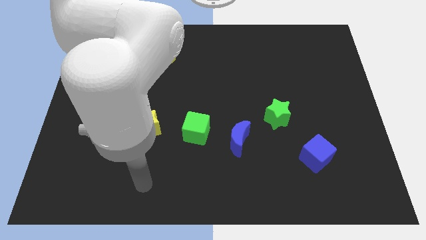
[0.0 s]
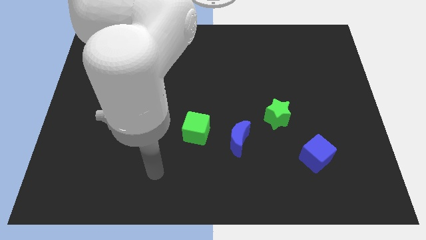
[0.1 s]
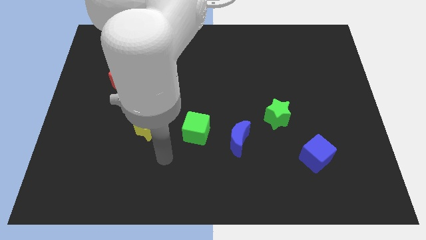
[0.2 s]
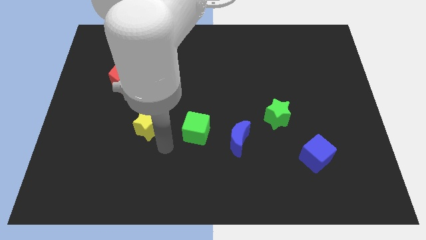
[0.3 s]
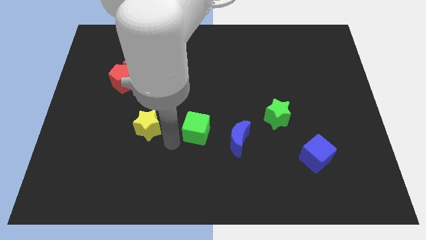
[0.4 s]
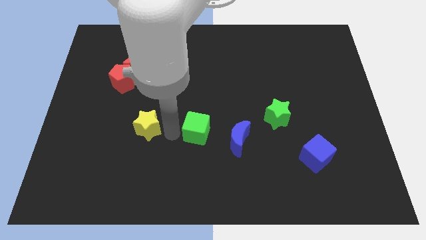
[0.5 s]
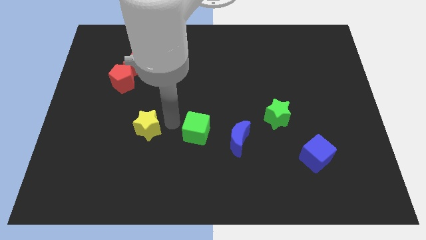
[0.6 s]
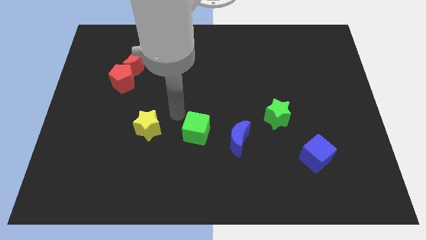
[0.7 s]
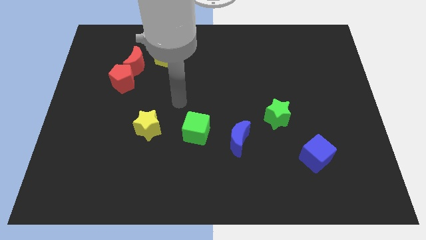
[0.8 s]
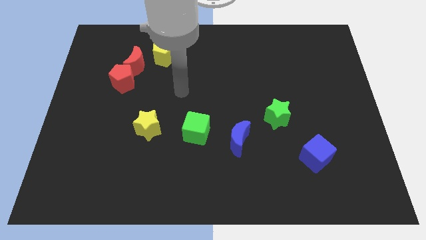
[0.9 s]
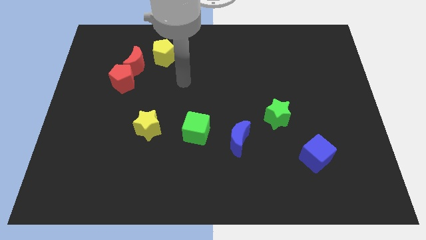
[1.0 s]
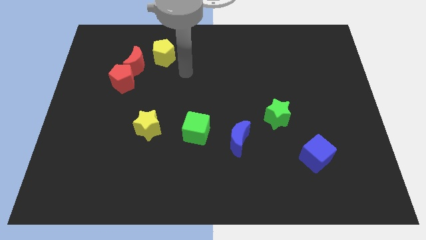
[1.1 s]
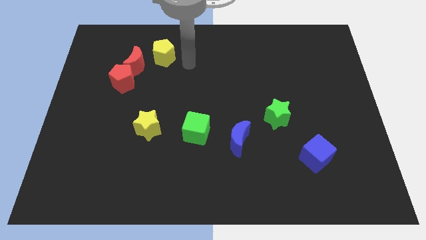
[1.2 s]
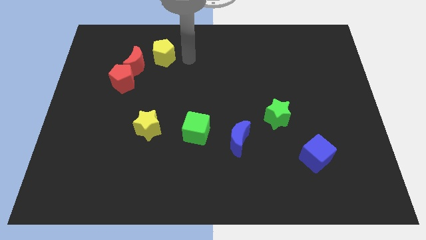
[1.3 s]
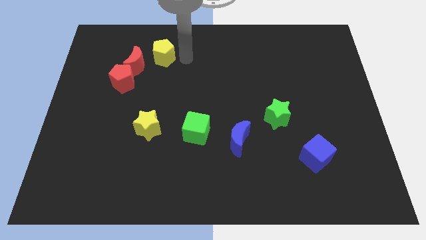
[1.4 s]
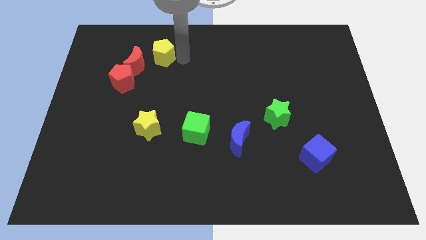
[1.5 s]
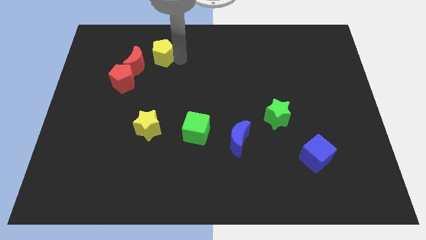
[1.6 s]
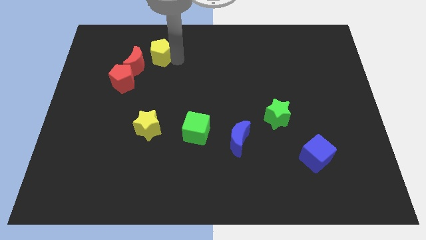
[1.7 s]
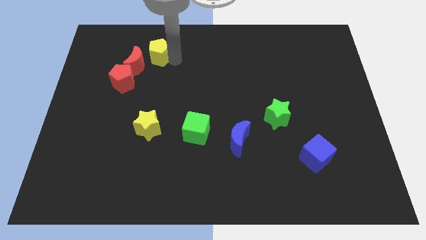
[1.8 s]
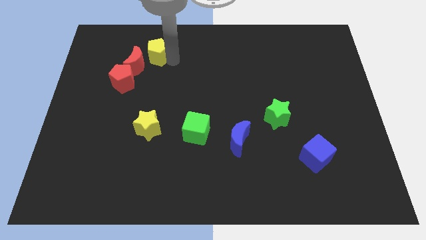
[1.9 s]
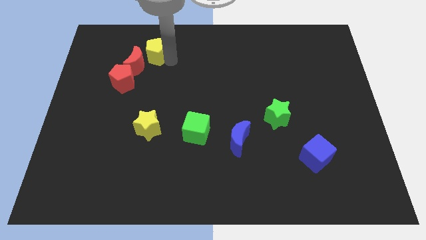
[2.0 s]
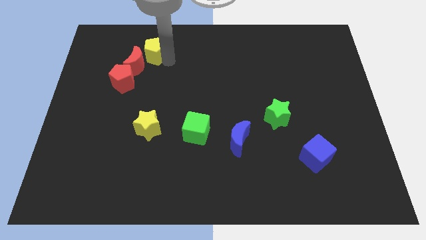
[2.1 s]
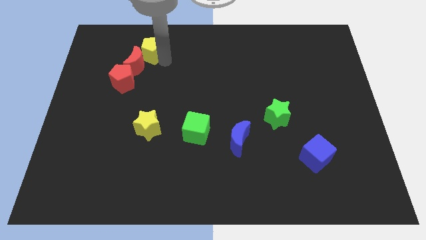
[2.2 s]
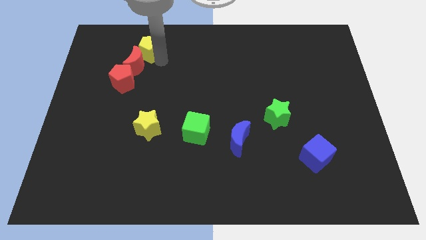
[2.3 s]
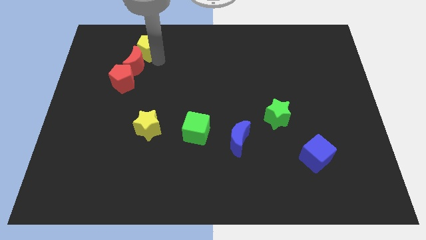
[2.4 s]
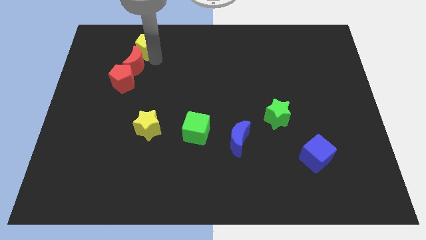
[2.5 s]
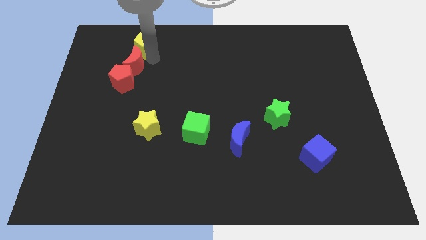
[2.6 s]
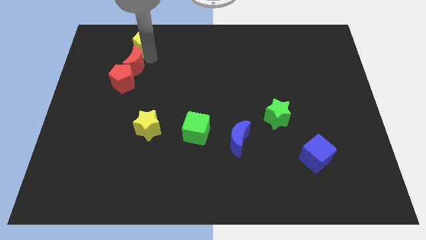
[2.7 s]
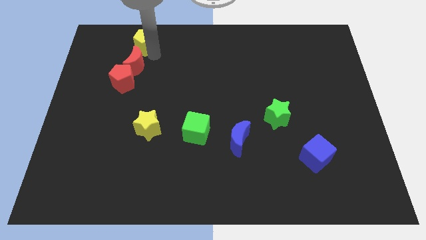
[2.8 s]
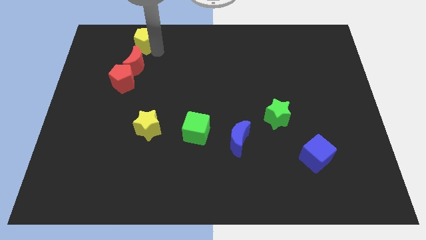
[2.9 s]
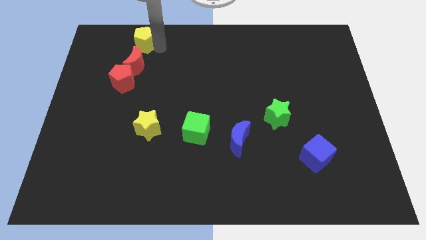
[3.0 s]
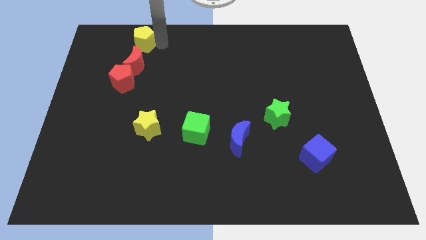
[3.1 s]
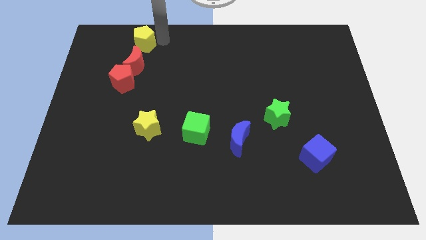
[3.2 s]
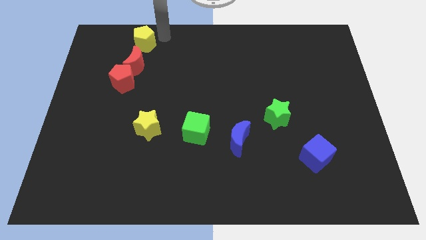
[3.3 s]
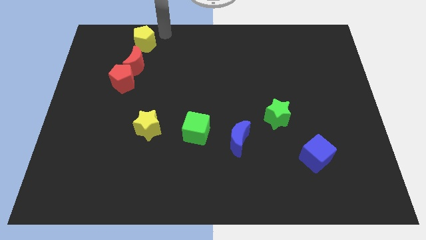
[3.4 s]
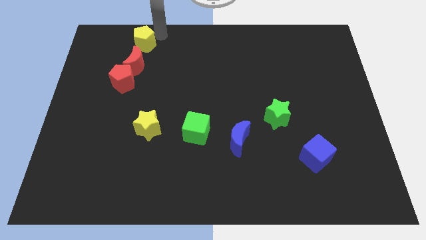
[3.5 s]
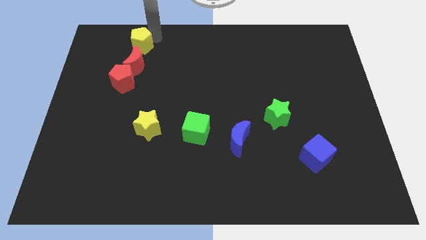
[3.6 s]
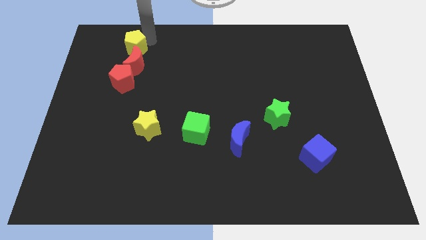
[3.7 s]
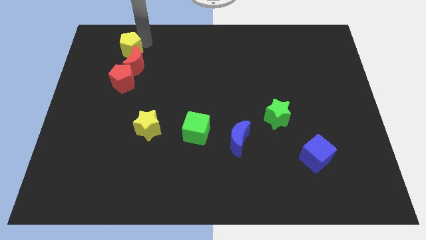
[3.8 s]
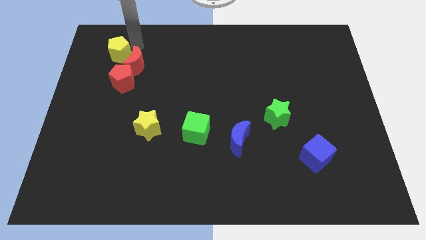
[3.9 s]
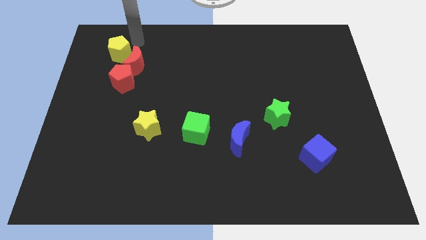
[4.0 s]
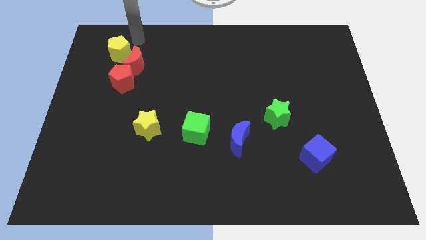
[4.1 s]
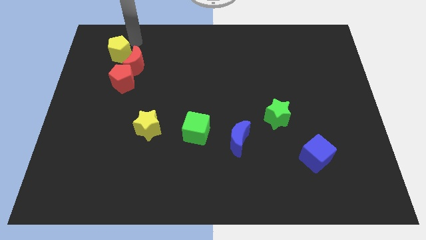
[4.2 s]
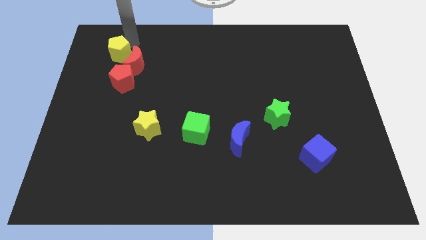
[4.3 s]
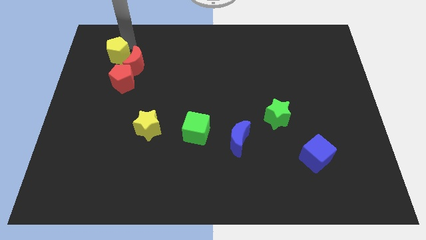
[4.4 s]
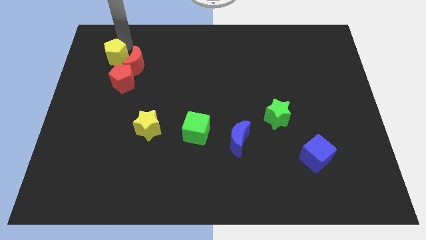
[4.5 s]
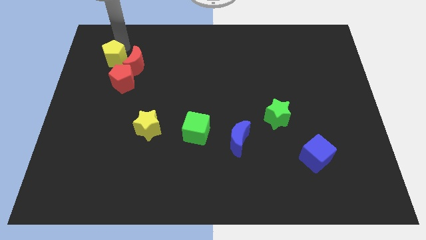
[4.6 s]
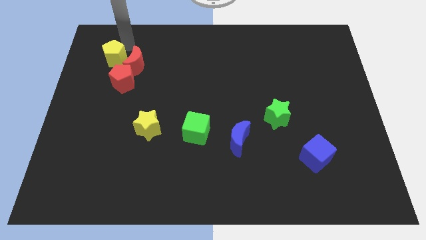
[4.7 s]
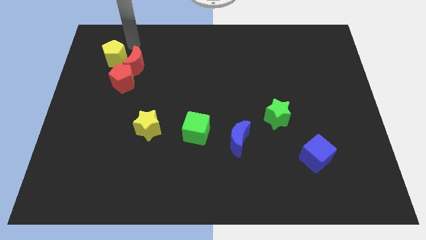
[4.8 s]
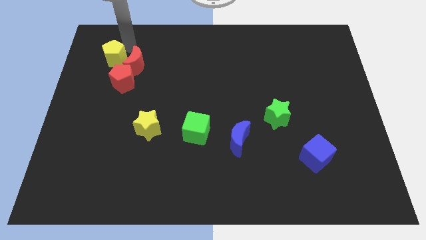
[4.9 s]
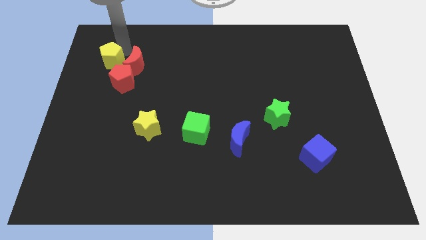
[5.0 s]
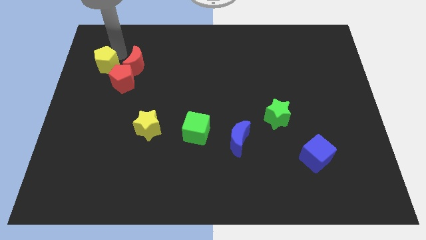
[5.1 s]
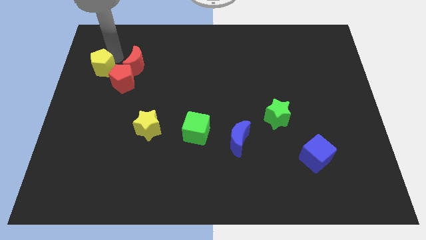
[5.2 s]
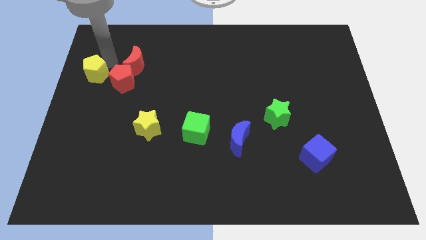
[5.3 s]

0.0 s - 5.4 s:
push the yellow pentagon to the left side

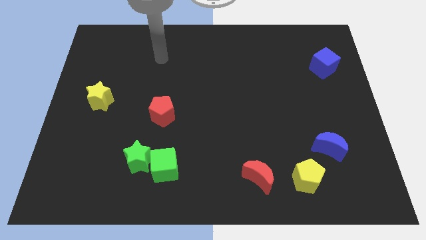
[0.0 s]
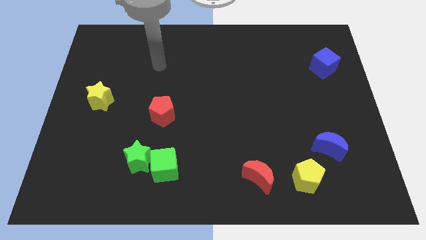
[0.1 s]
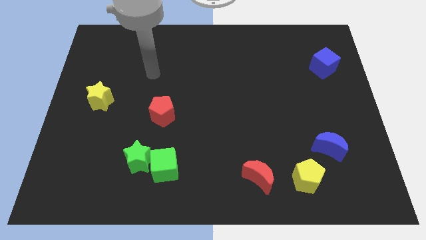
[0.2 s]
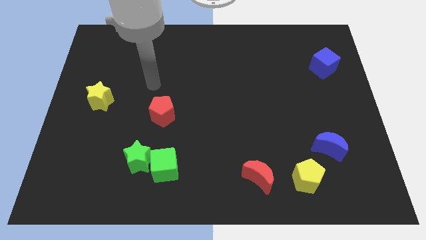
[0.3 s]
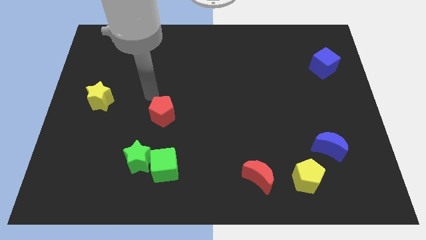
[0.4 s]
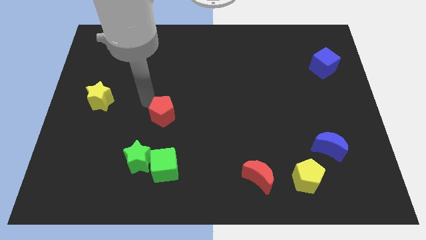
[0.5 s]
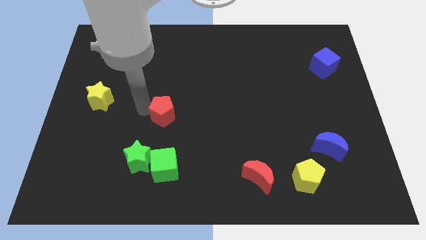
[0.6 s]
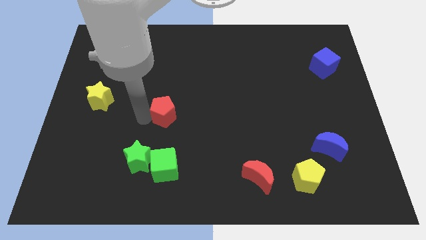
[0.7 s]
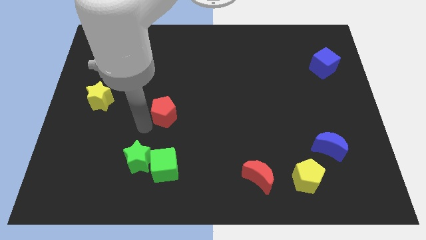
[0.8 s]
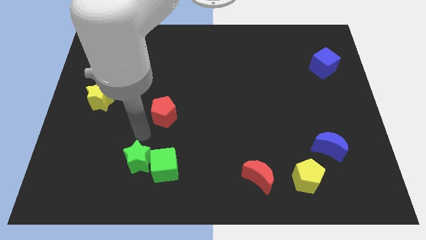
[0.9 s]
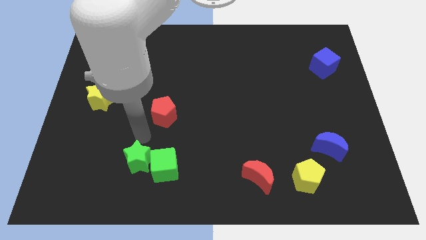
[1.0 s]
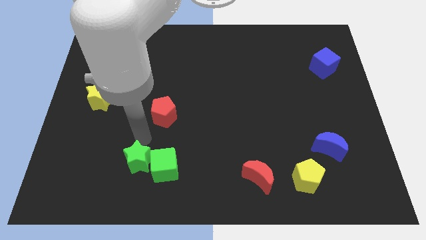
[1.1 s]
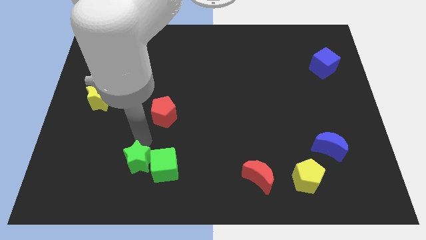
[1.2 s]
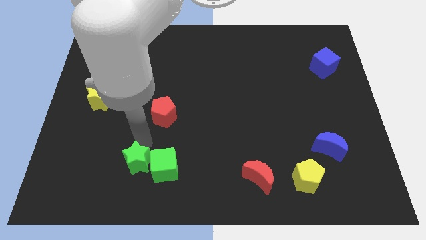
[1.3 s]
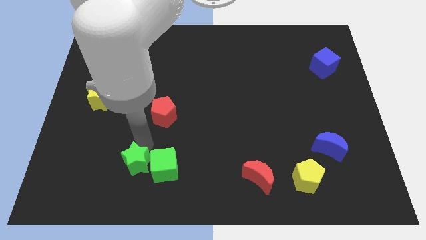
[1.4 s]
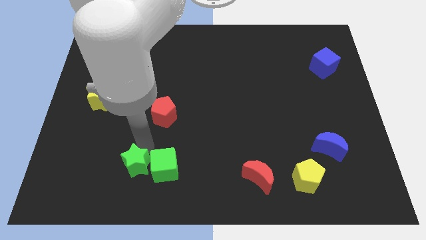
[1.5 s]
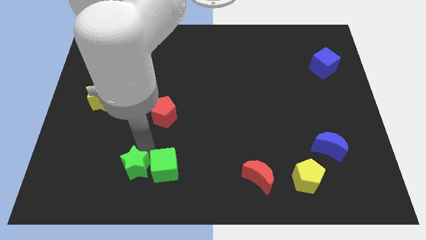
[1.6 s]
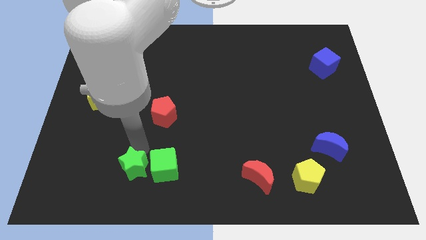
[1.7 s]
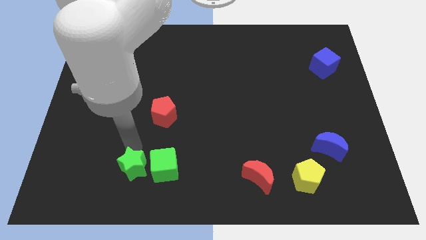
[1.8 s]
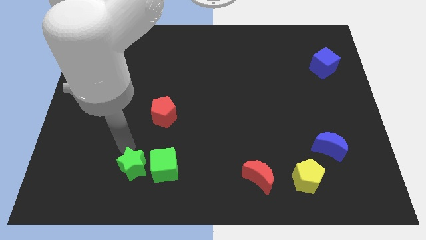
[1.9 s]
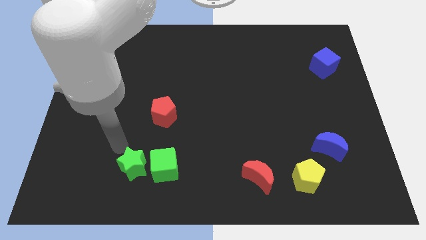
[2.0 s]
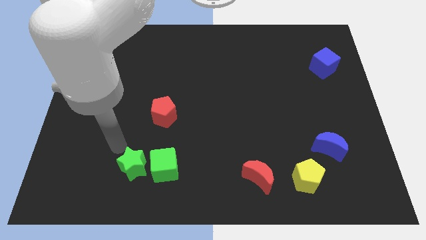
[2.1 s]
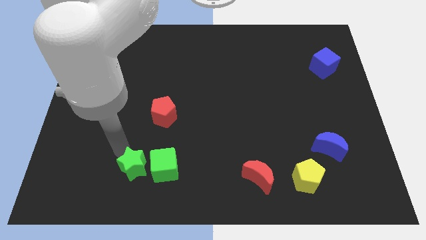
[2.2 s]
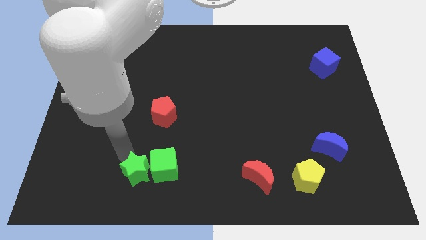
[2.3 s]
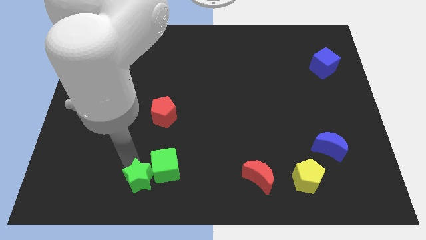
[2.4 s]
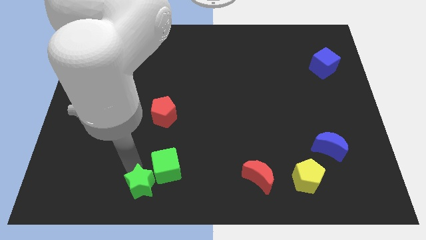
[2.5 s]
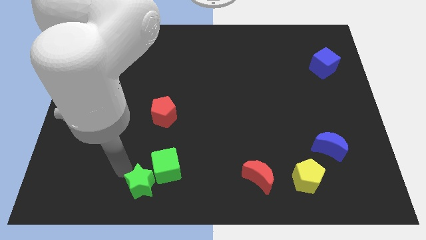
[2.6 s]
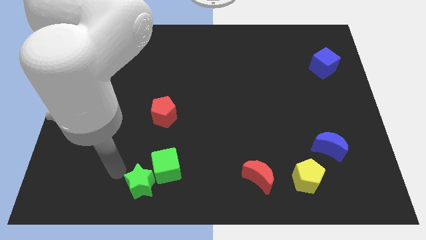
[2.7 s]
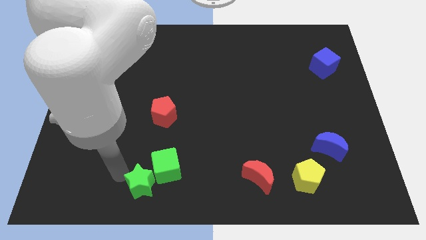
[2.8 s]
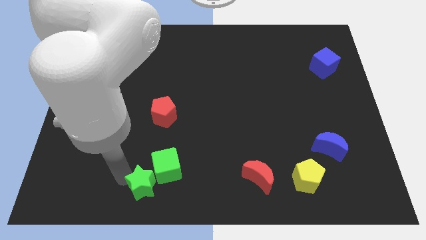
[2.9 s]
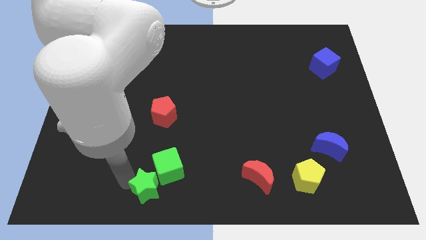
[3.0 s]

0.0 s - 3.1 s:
move the green star to the bottom side
